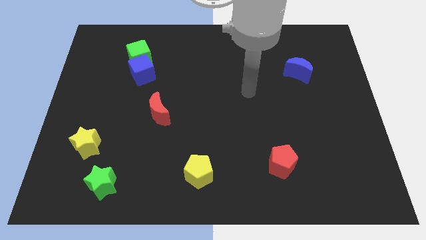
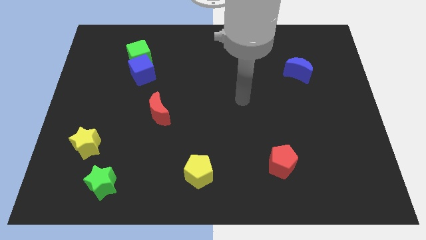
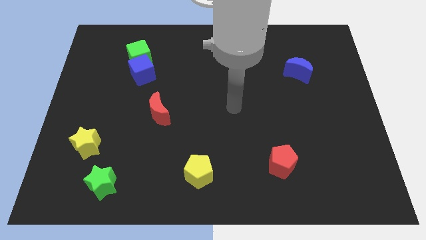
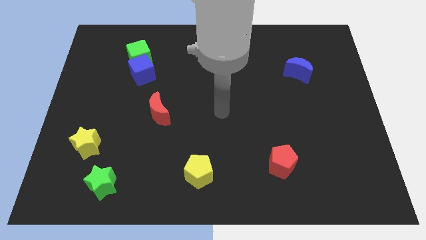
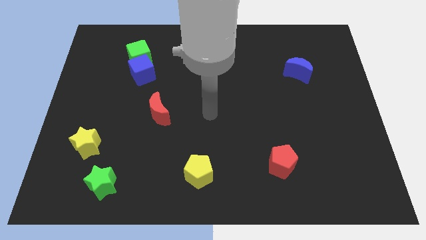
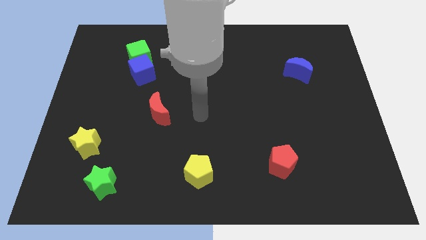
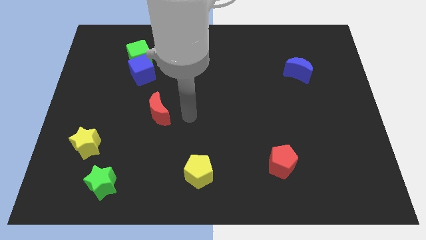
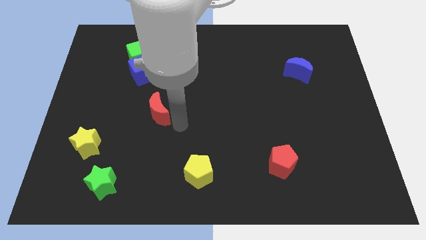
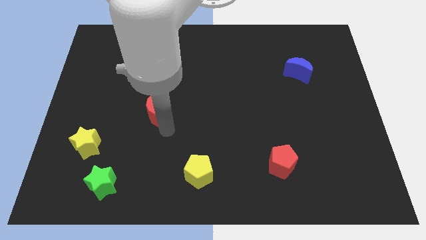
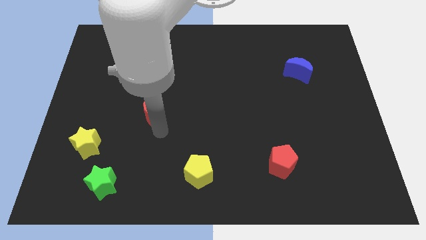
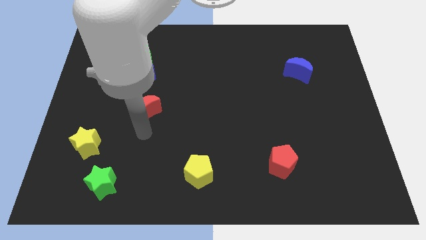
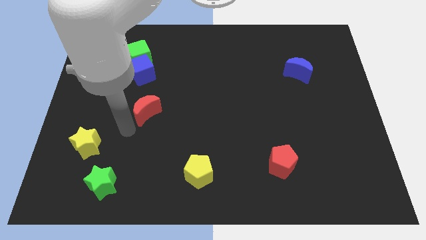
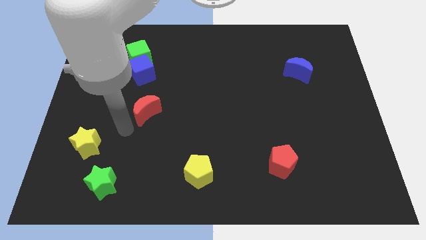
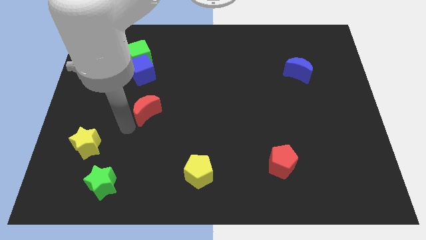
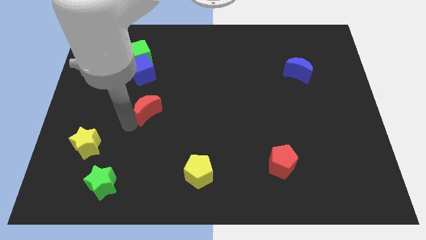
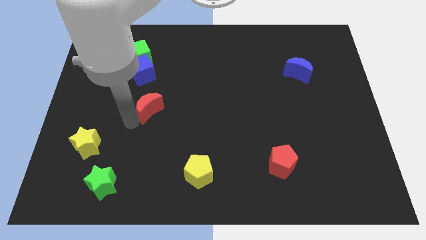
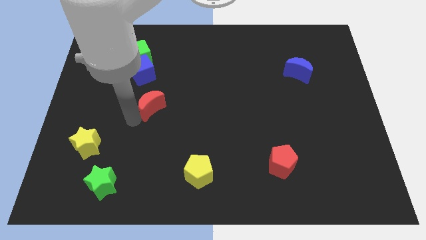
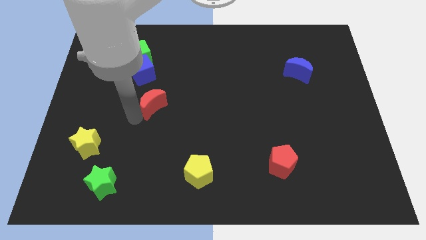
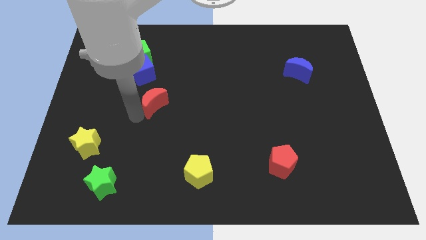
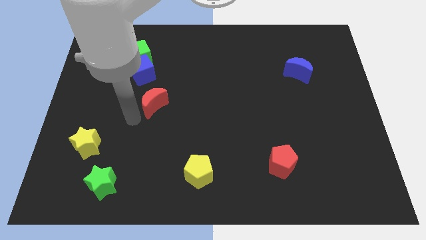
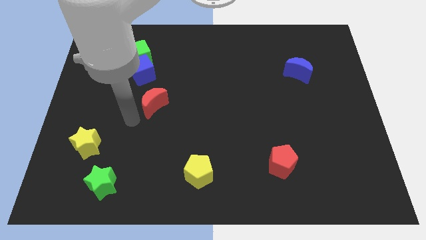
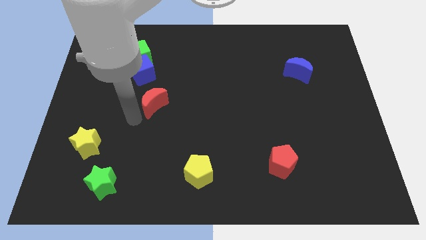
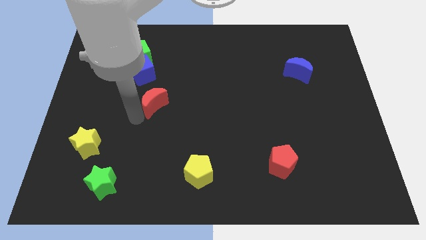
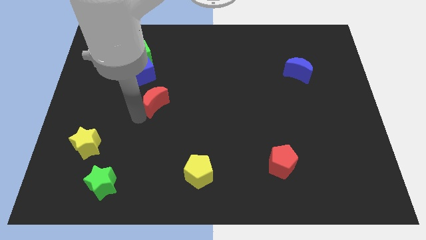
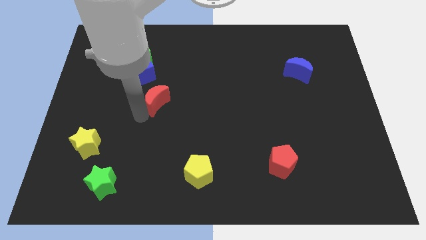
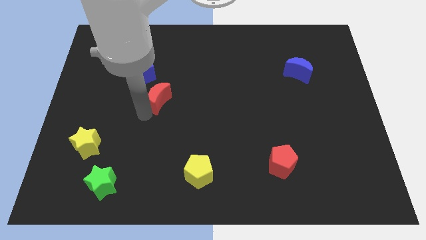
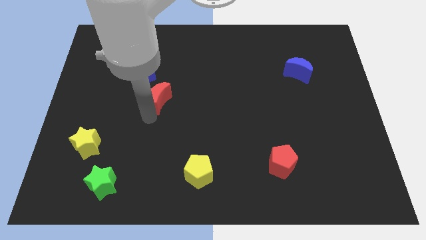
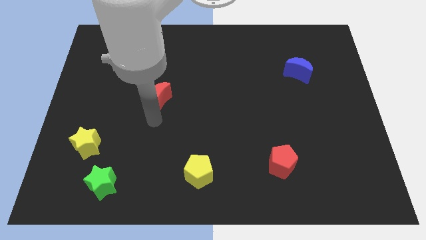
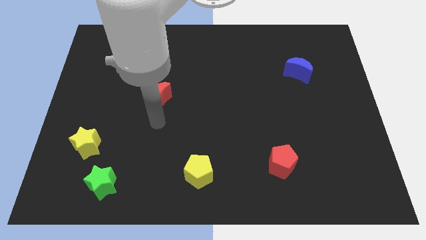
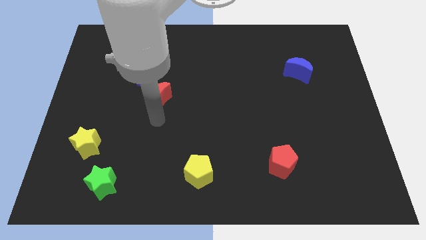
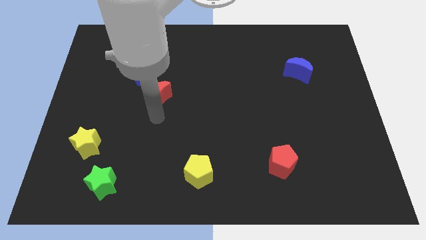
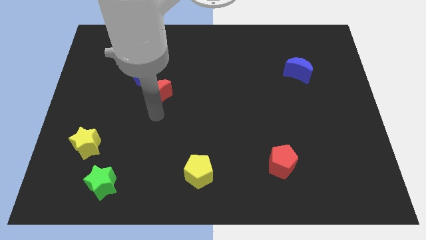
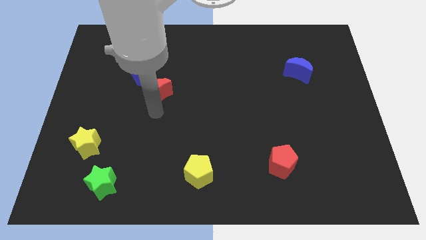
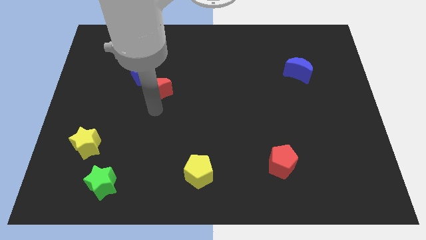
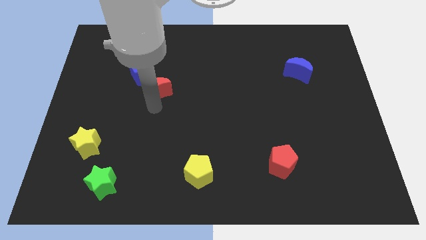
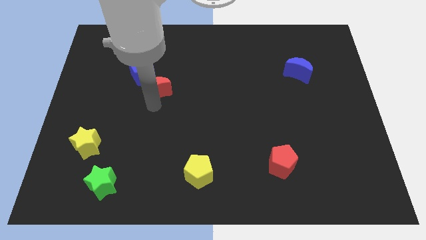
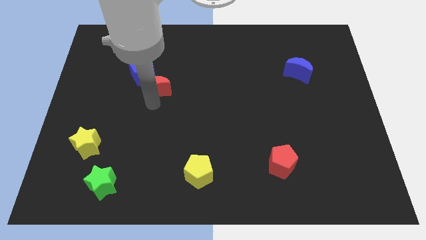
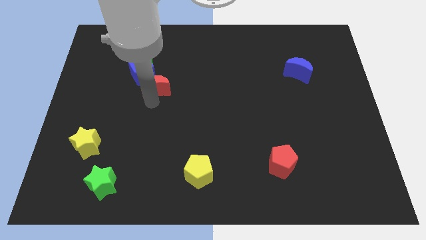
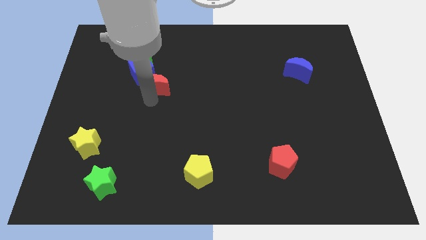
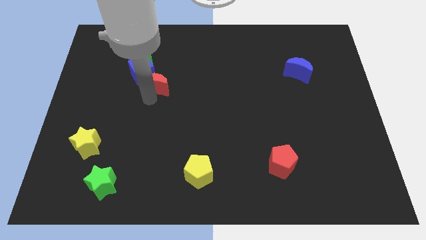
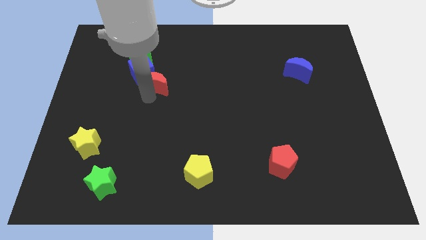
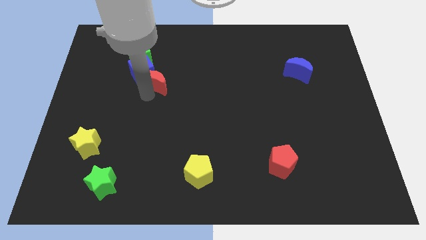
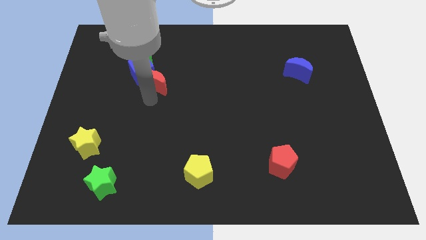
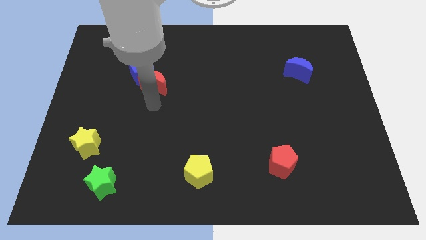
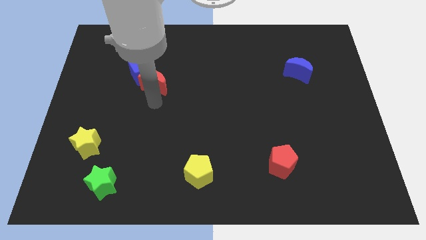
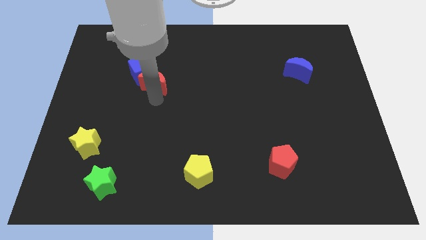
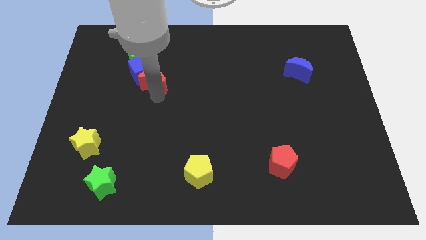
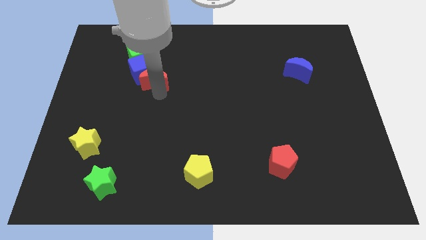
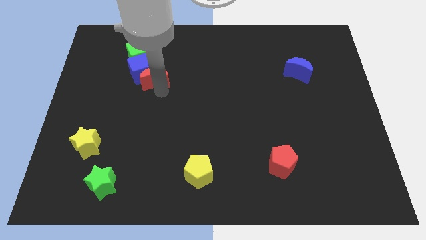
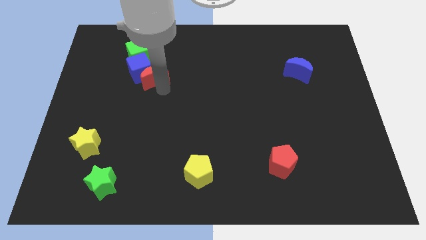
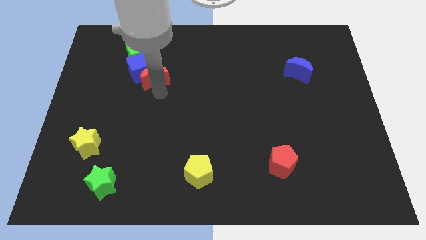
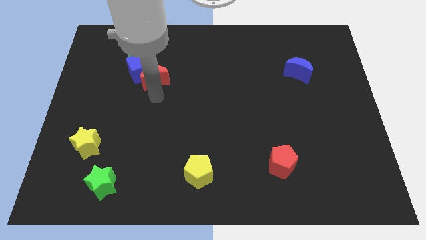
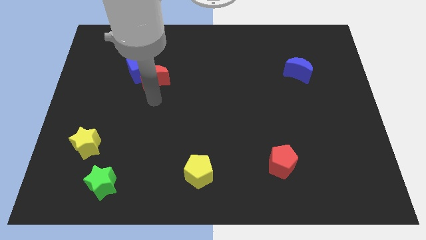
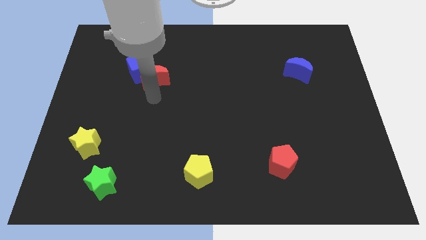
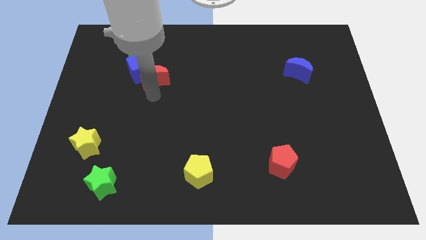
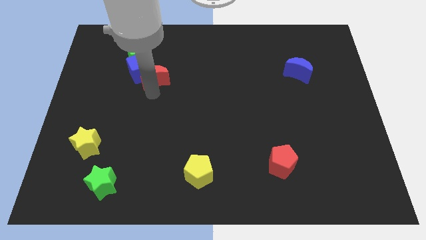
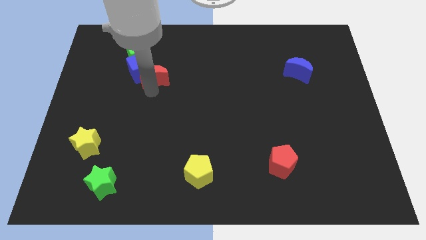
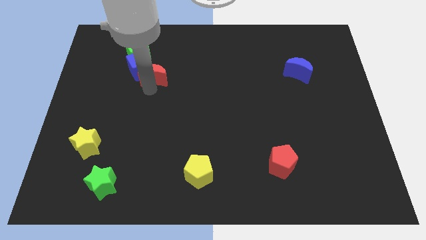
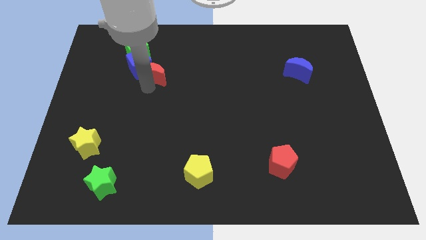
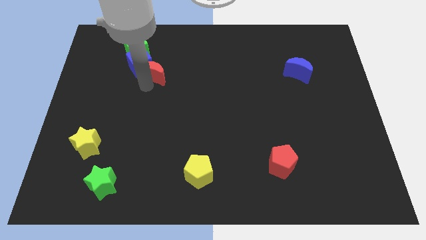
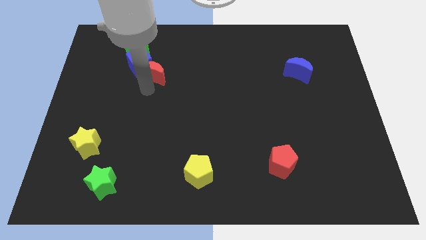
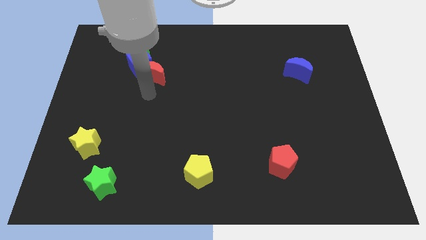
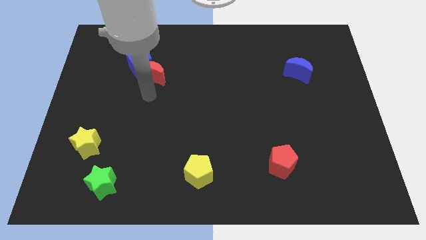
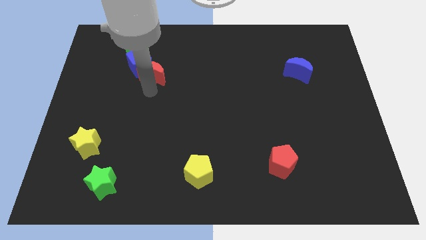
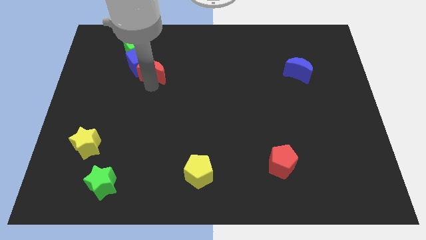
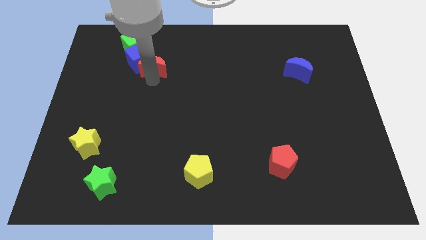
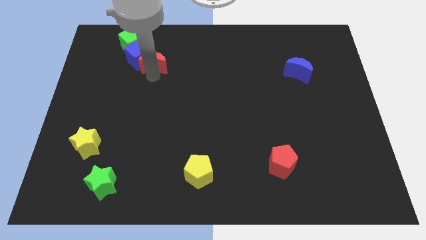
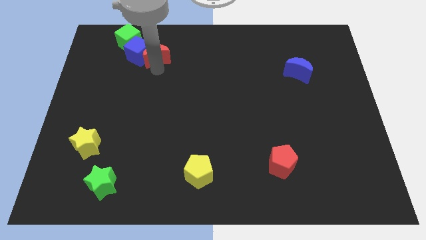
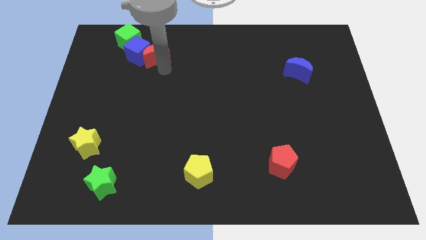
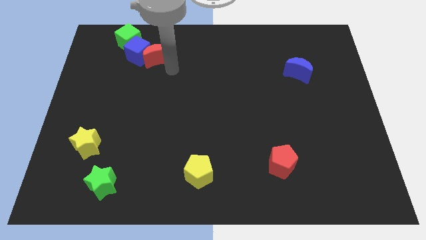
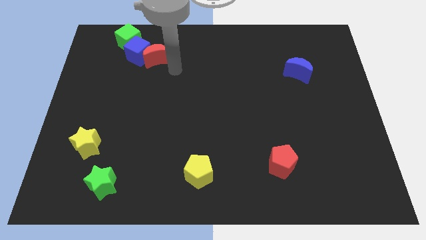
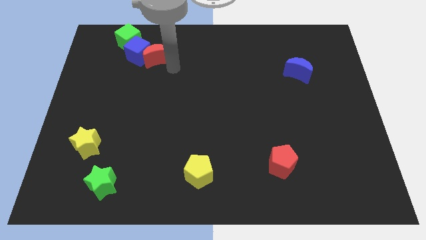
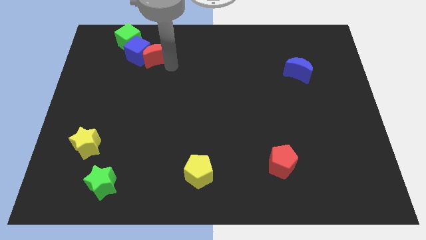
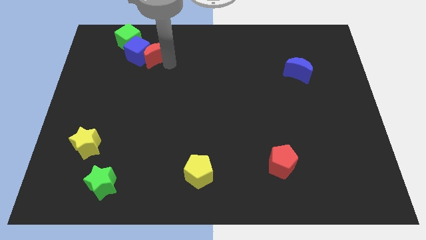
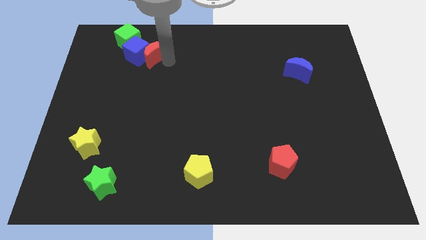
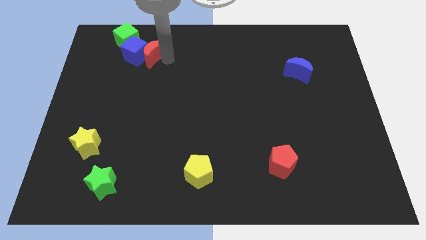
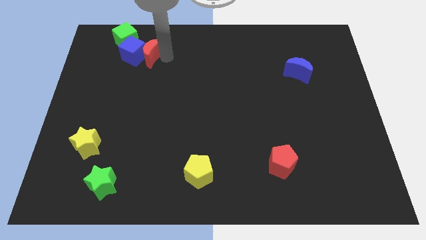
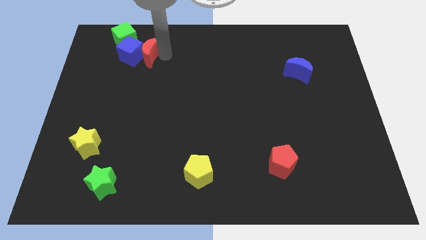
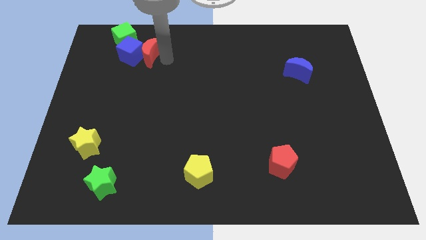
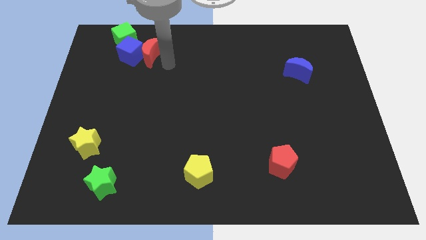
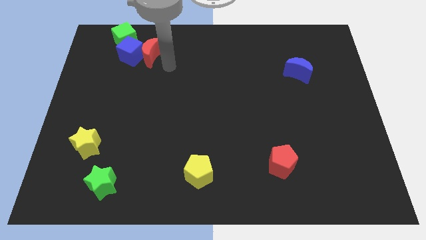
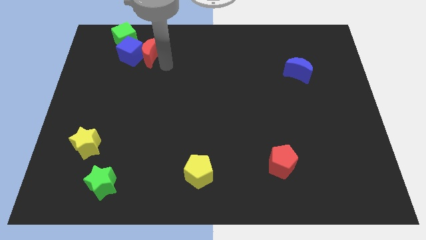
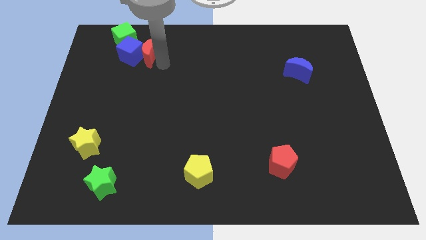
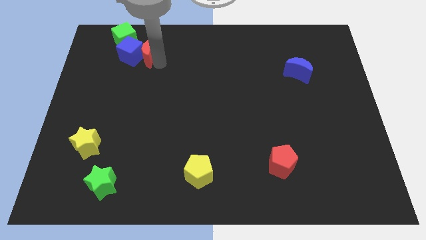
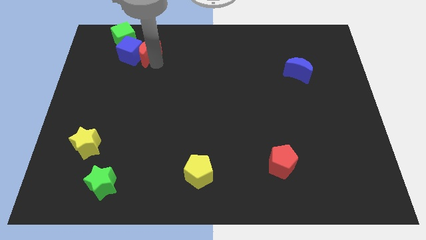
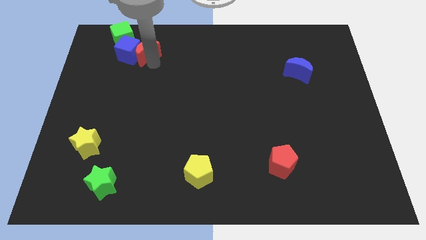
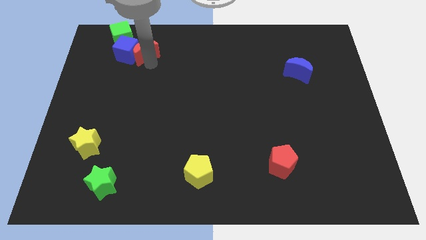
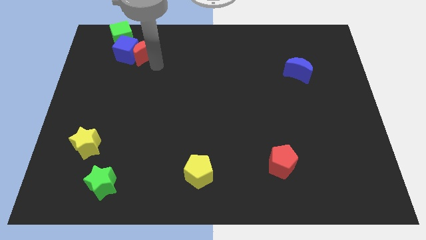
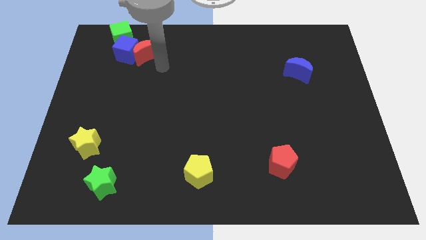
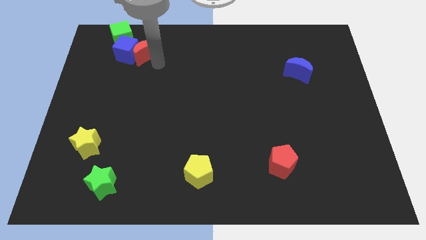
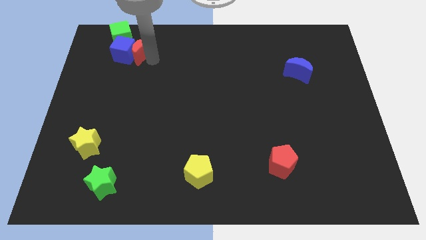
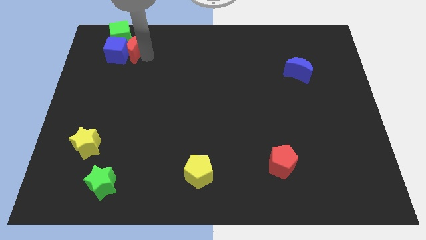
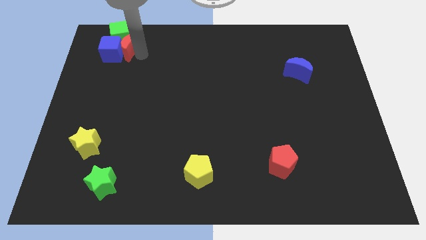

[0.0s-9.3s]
move the red moon close to the green cube
